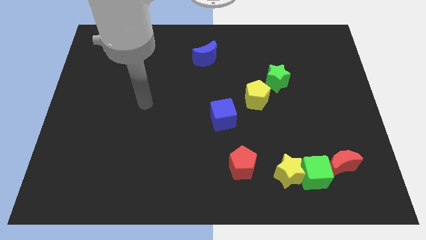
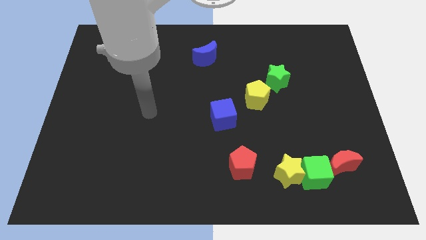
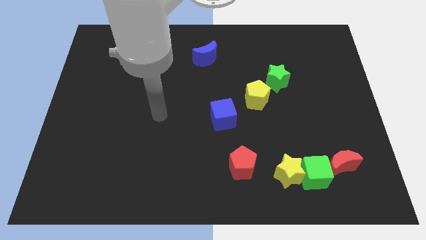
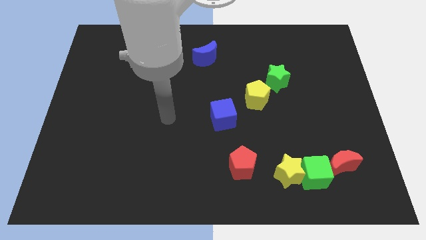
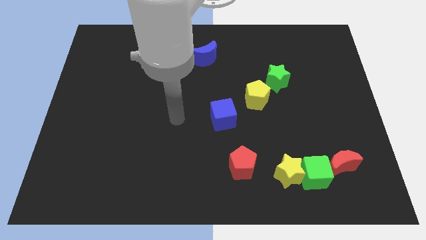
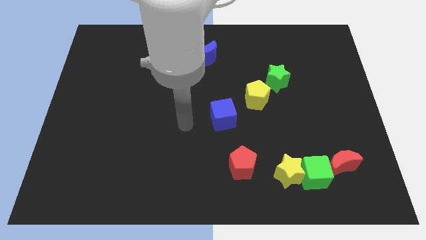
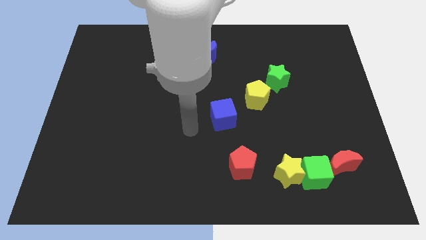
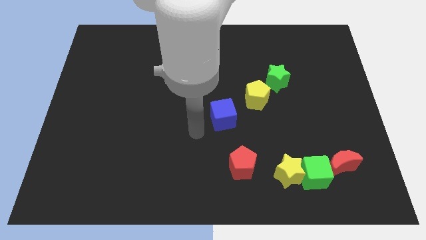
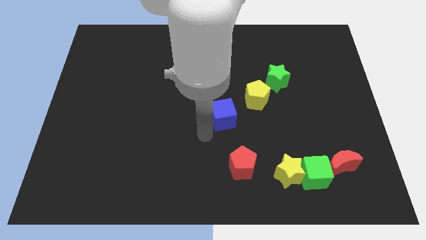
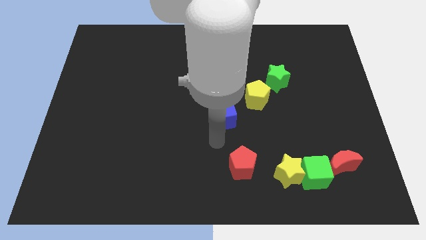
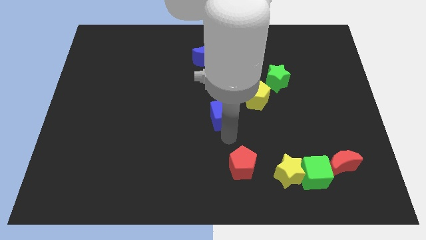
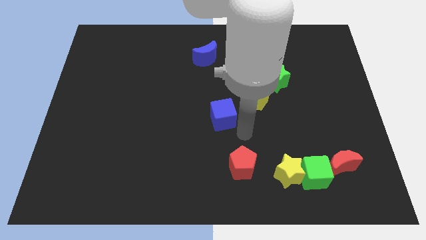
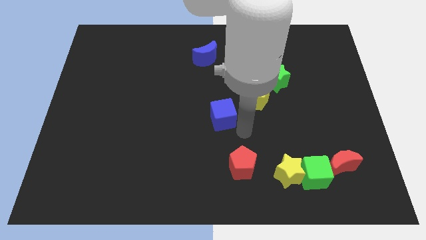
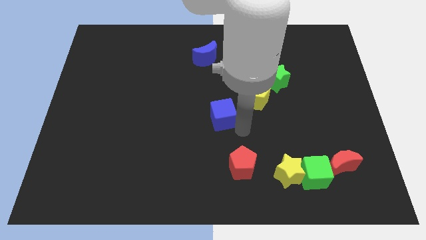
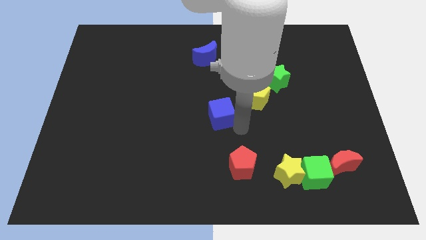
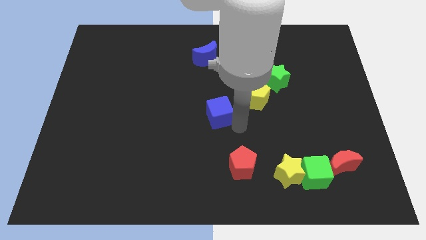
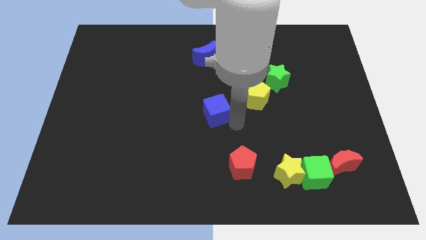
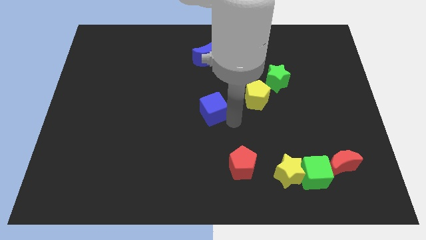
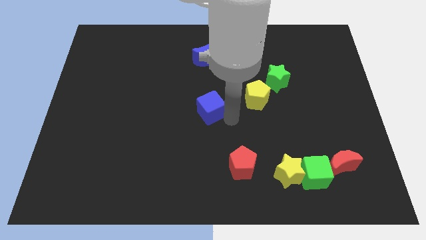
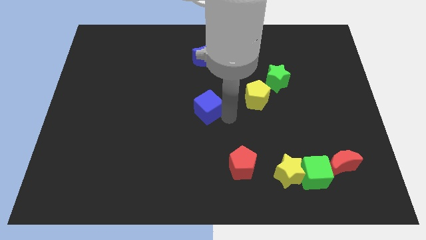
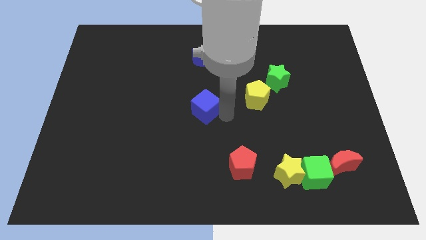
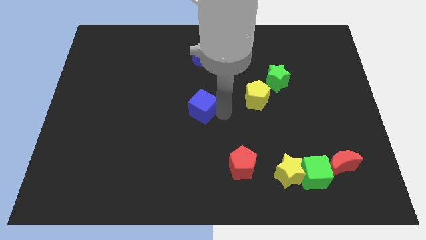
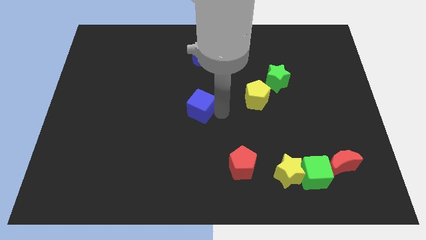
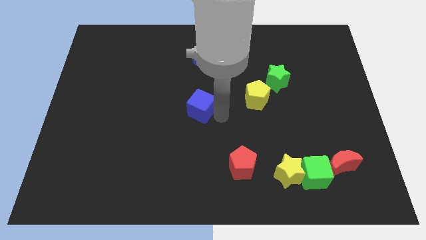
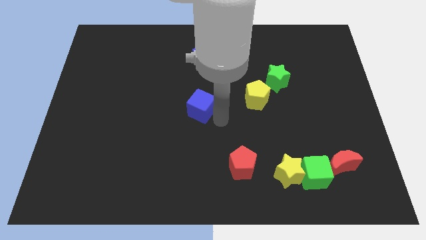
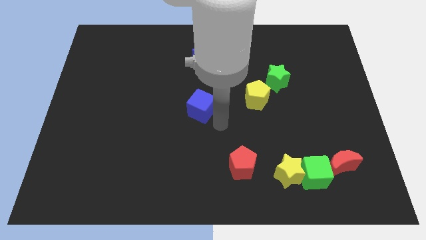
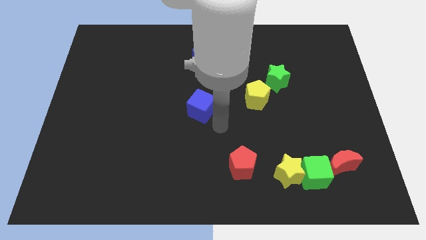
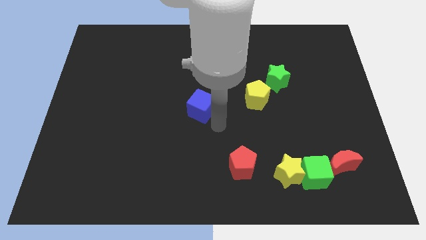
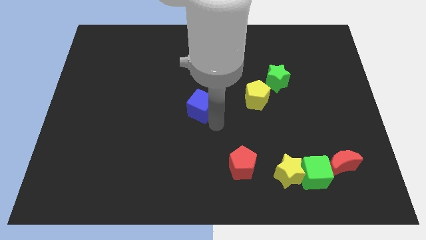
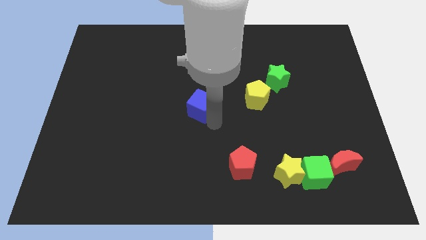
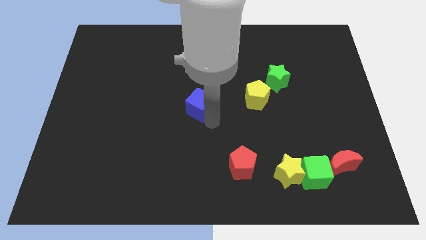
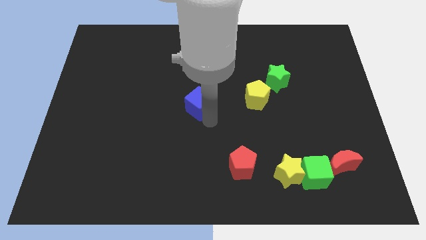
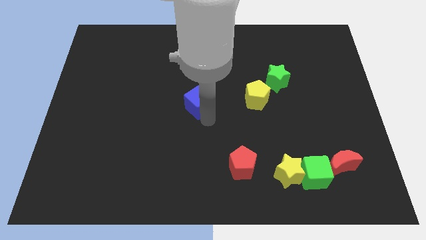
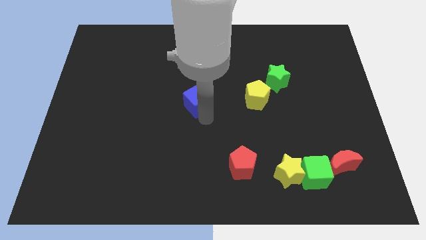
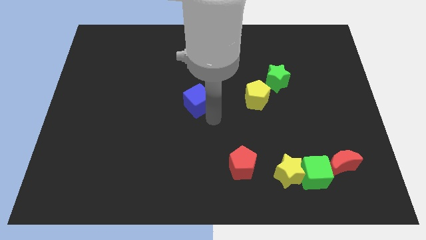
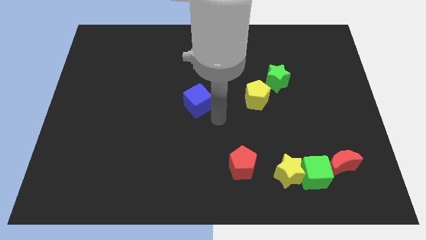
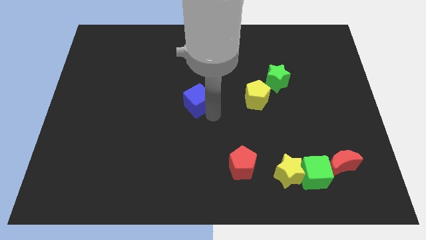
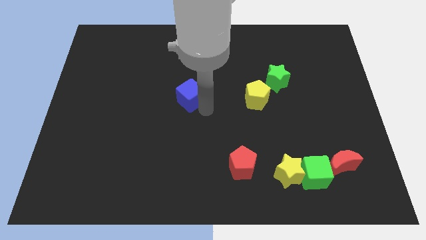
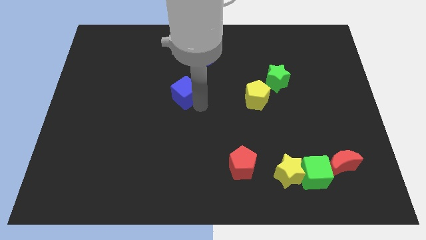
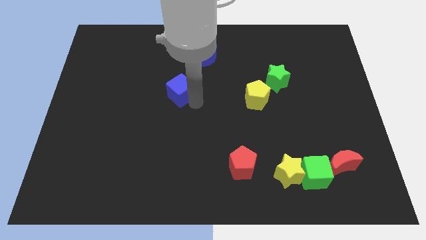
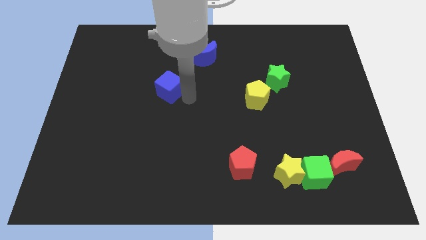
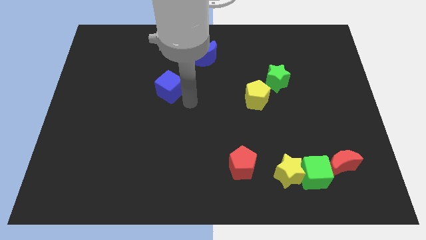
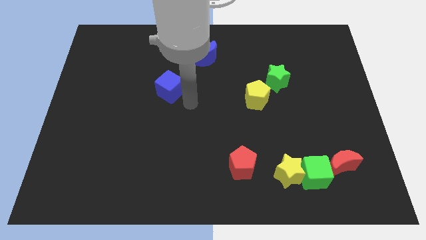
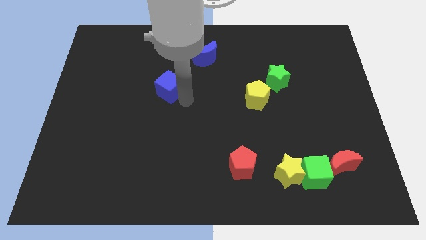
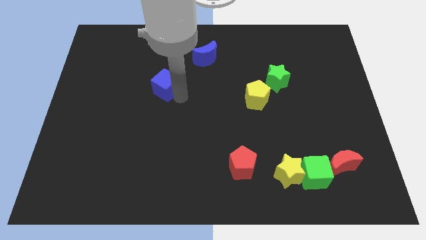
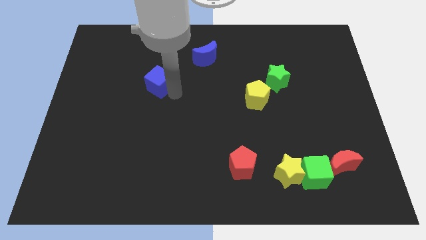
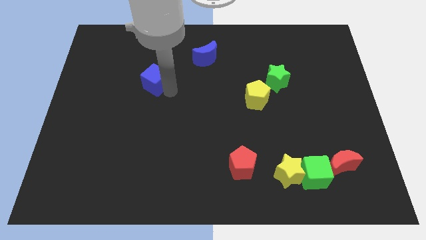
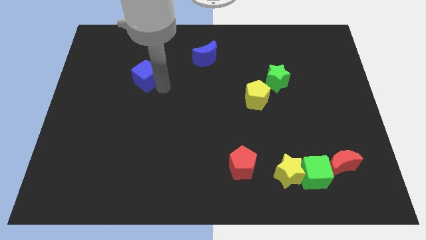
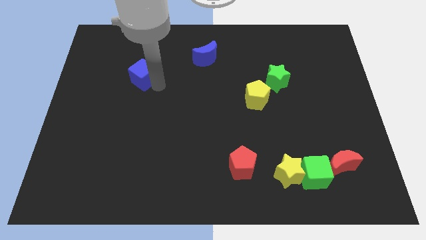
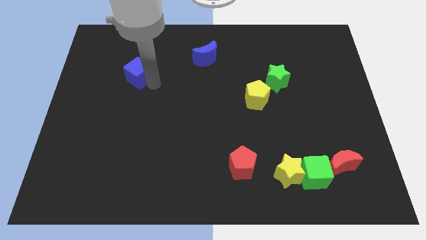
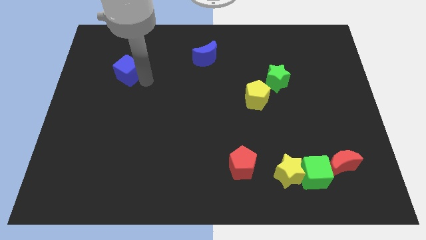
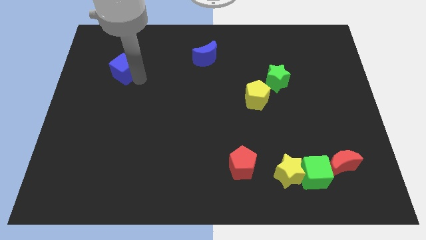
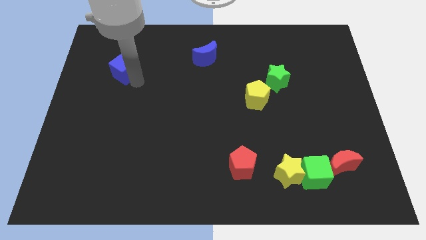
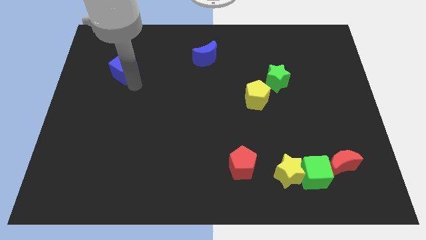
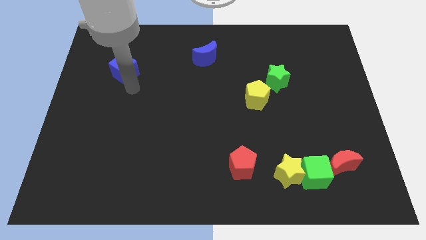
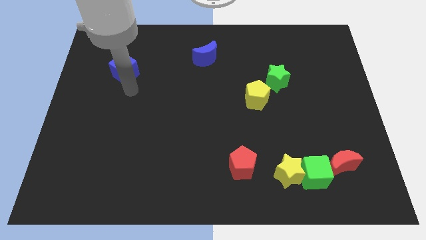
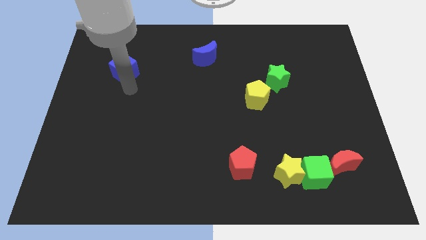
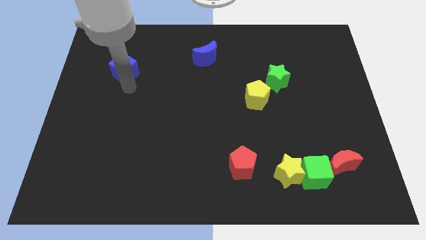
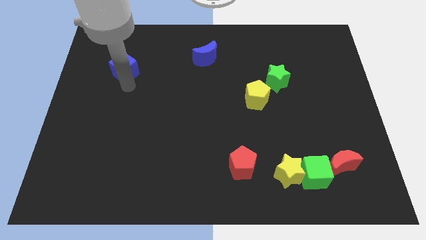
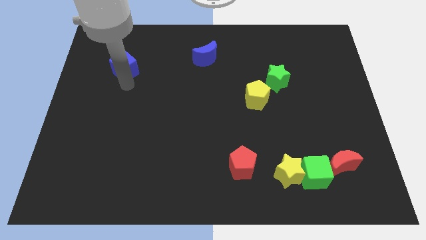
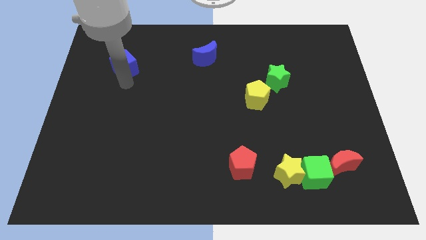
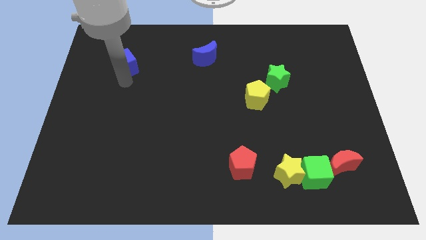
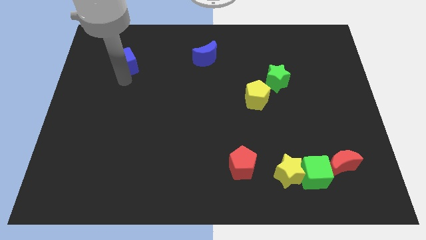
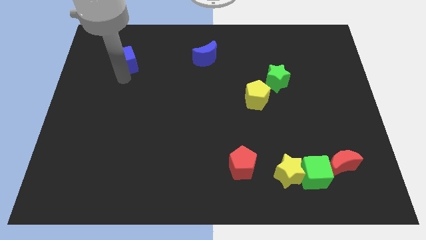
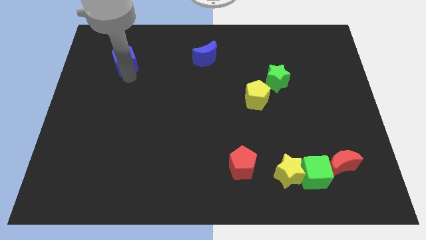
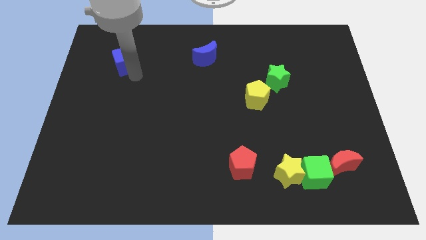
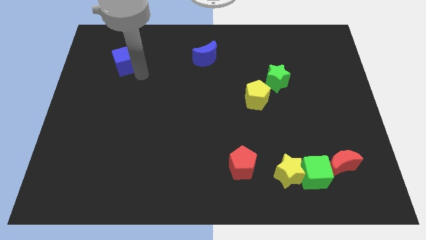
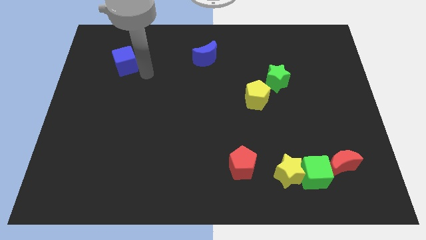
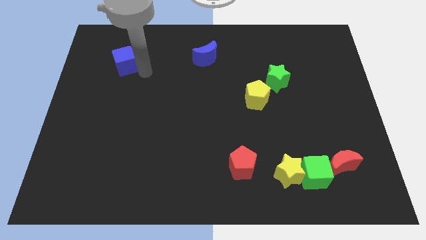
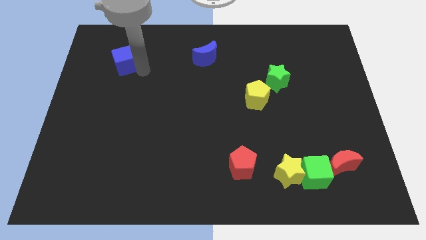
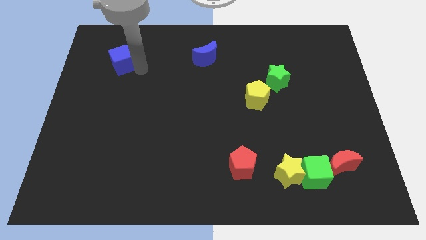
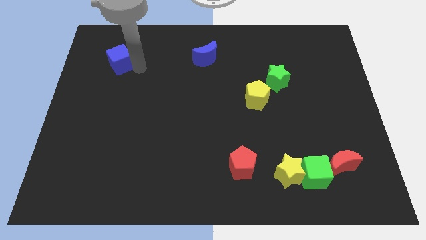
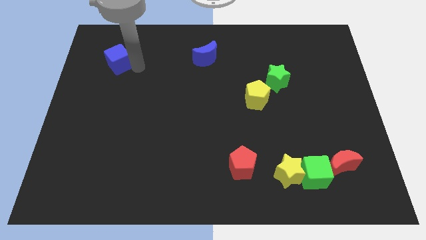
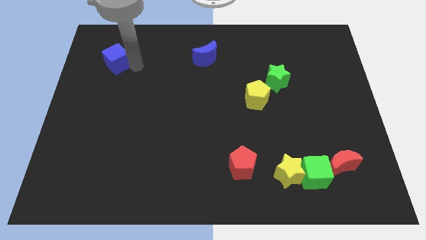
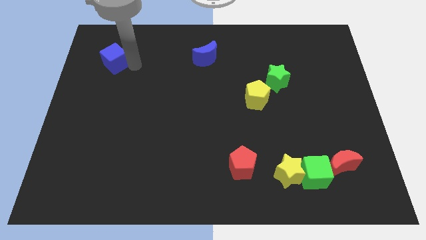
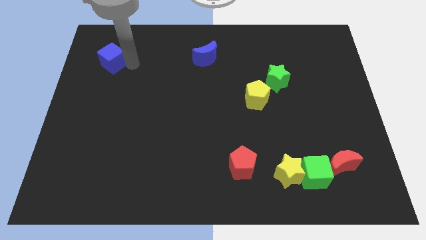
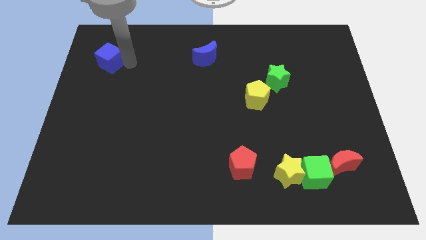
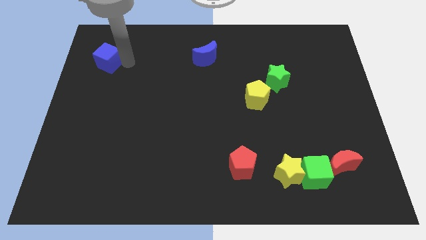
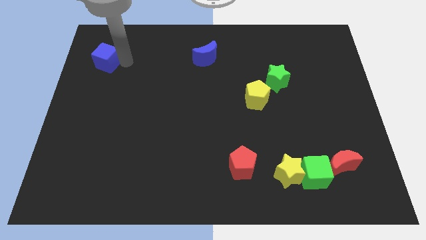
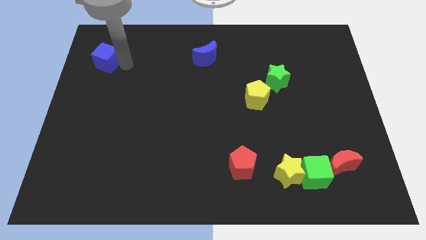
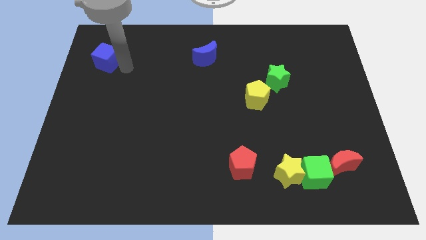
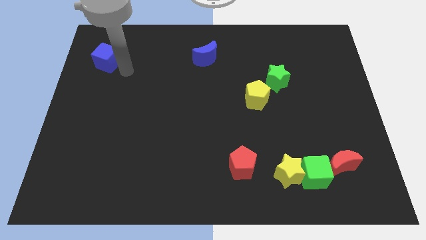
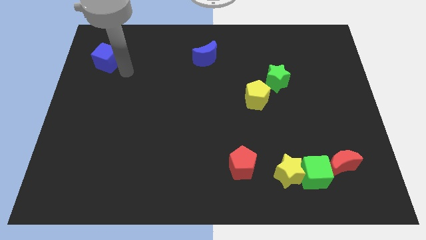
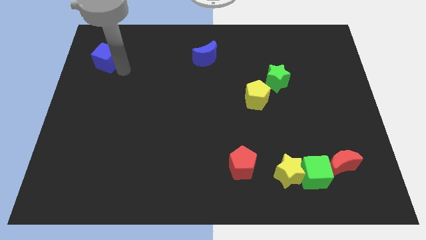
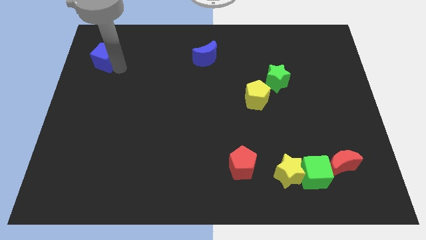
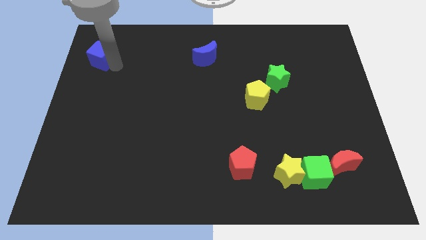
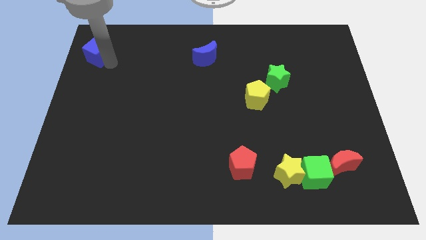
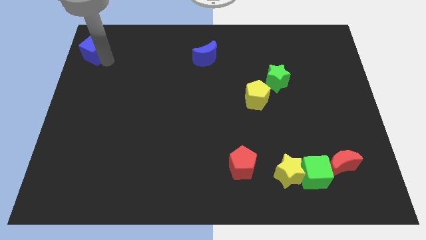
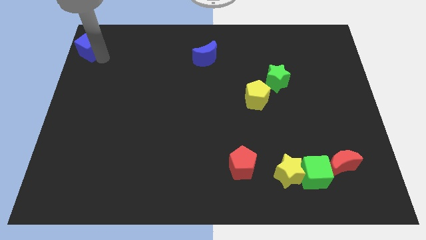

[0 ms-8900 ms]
put the blue cube to the top left
